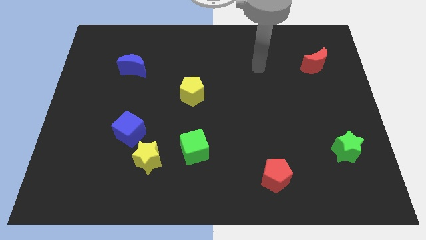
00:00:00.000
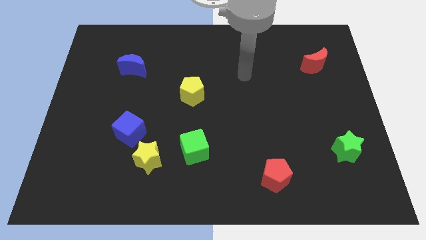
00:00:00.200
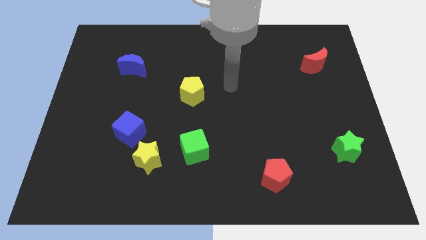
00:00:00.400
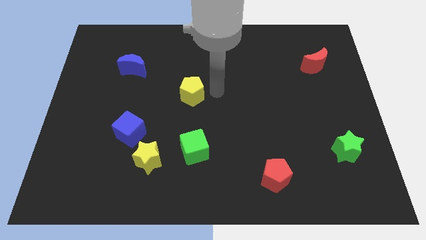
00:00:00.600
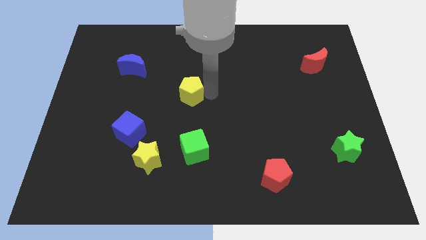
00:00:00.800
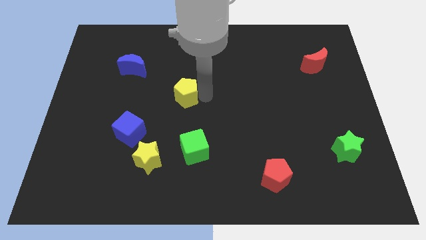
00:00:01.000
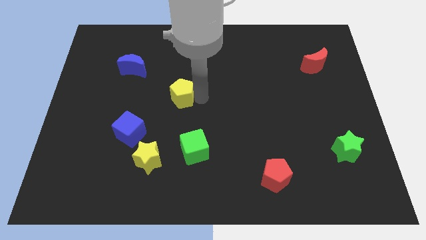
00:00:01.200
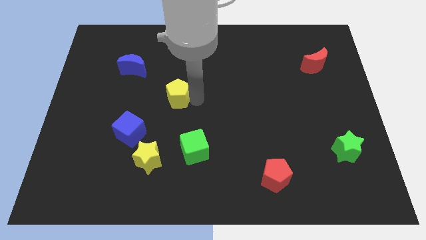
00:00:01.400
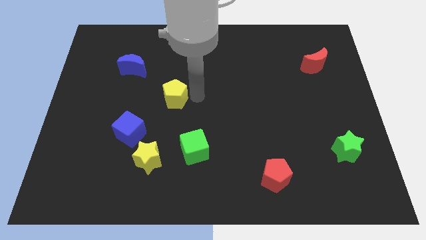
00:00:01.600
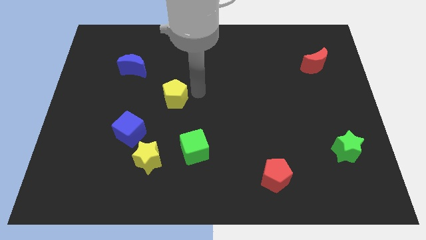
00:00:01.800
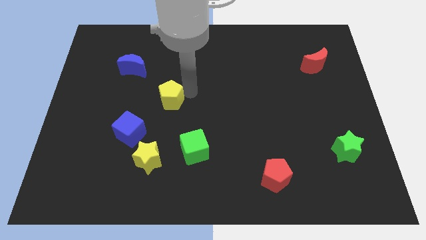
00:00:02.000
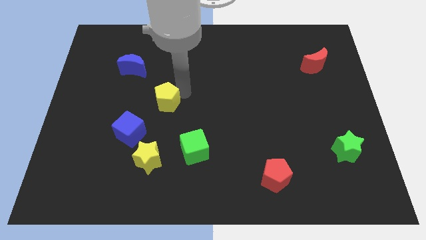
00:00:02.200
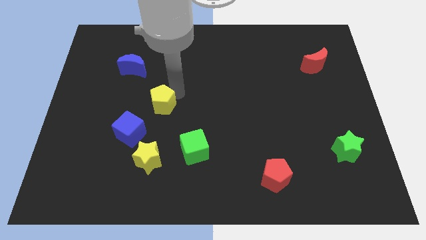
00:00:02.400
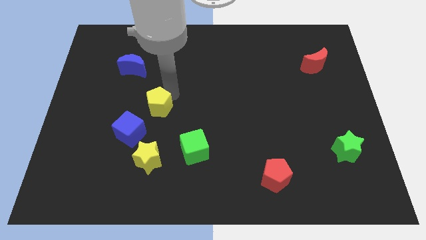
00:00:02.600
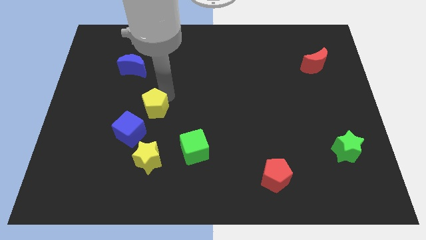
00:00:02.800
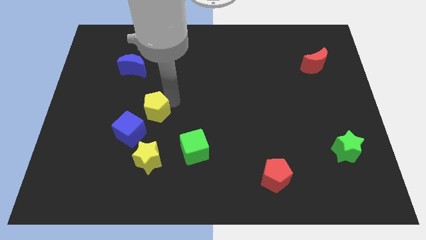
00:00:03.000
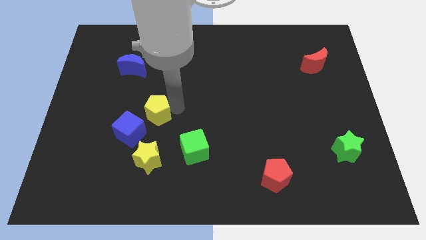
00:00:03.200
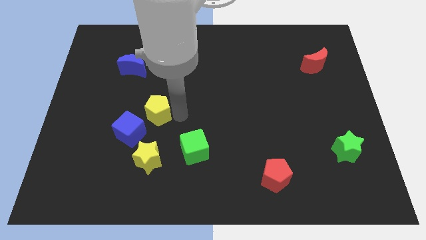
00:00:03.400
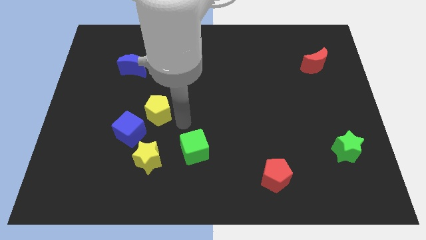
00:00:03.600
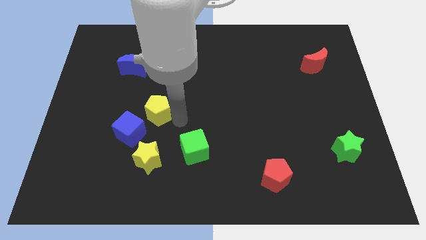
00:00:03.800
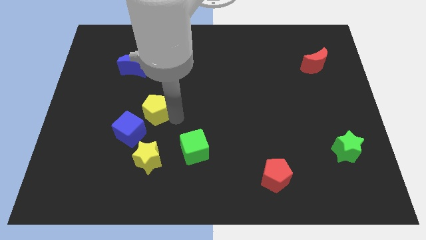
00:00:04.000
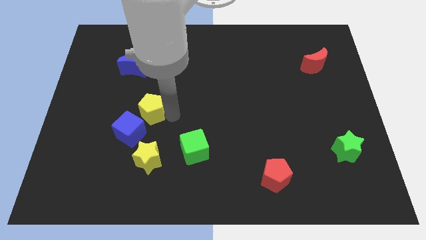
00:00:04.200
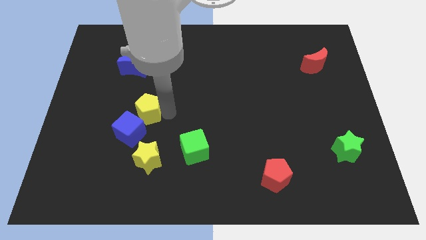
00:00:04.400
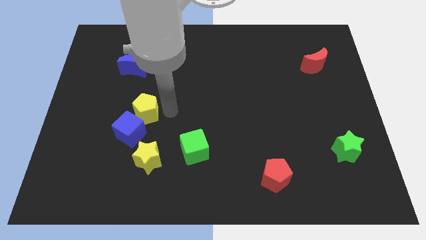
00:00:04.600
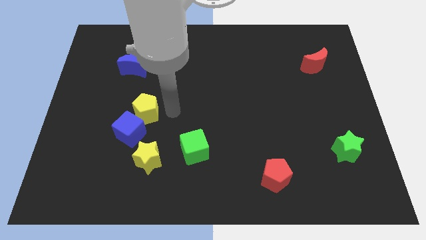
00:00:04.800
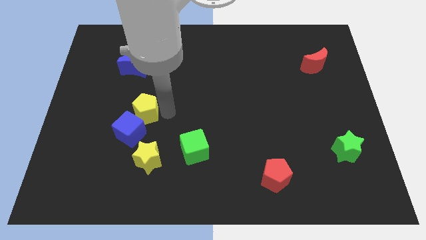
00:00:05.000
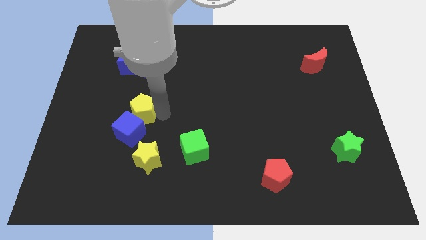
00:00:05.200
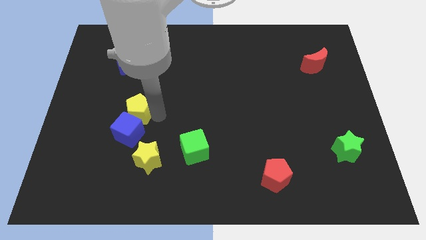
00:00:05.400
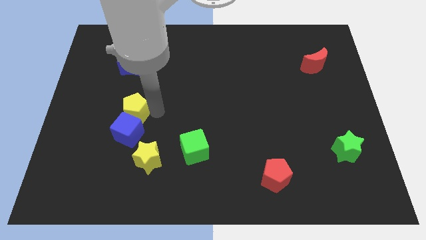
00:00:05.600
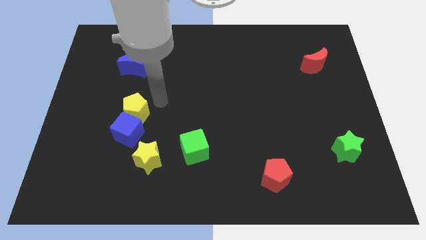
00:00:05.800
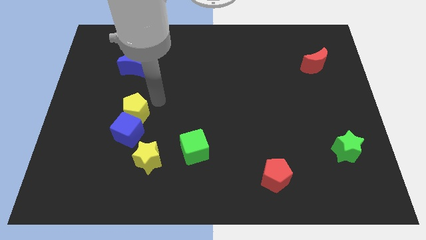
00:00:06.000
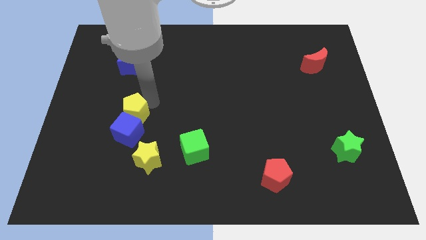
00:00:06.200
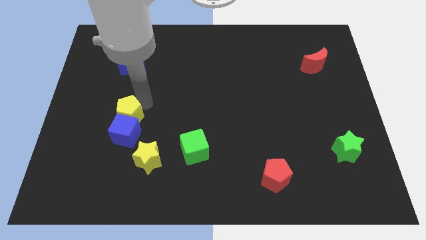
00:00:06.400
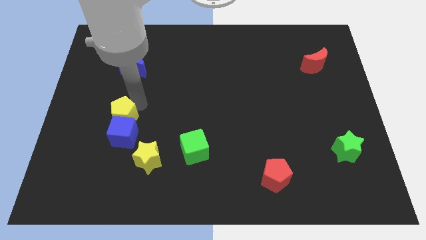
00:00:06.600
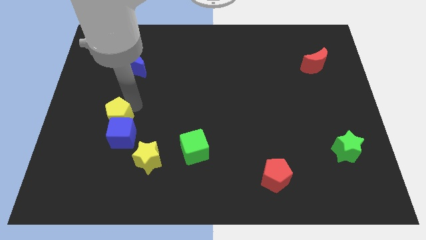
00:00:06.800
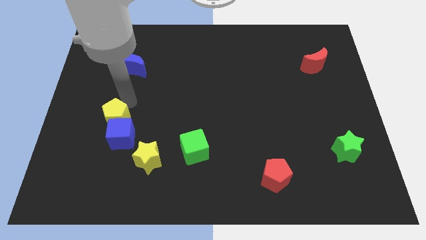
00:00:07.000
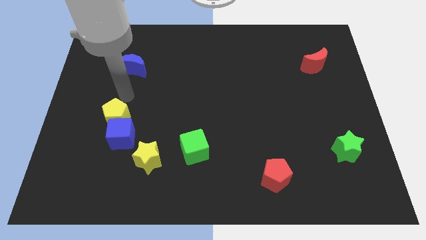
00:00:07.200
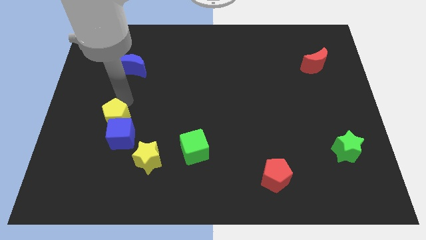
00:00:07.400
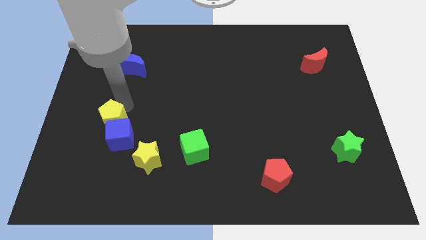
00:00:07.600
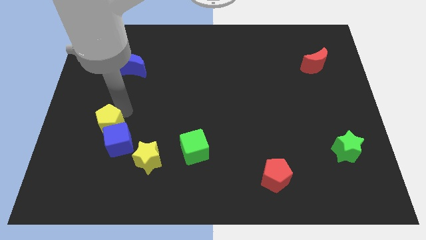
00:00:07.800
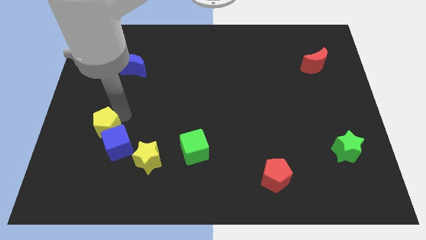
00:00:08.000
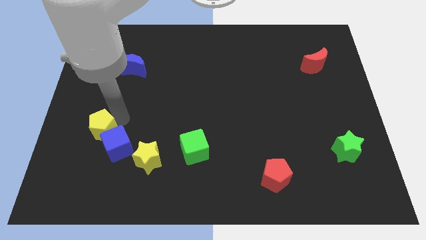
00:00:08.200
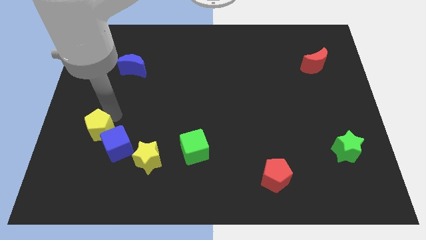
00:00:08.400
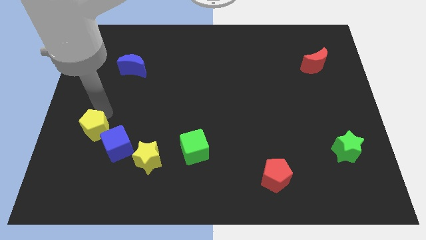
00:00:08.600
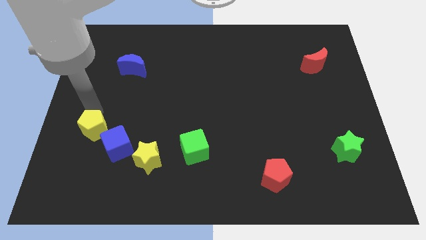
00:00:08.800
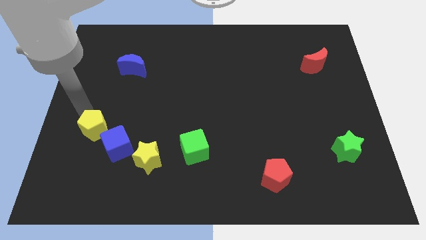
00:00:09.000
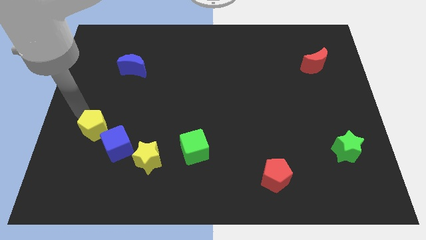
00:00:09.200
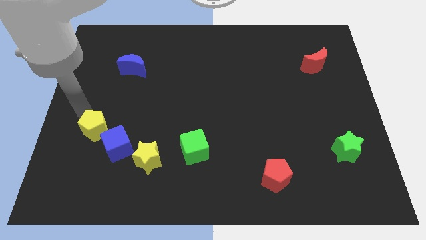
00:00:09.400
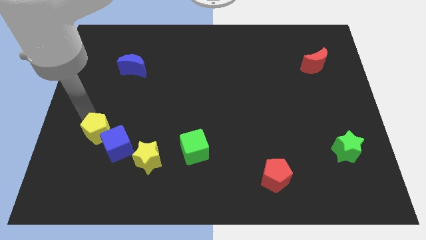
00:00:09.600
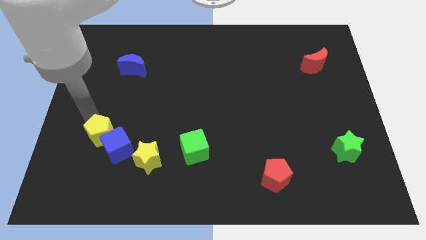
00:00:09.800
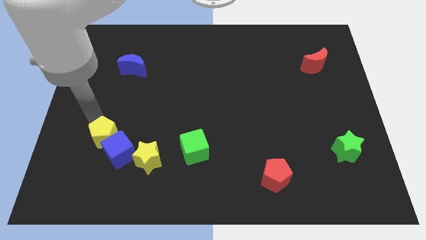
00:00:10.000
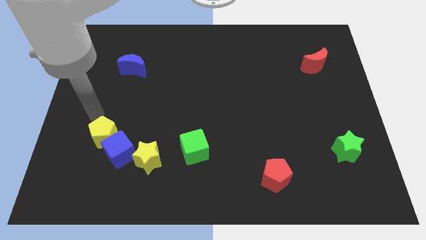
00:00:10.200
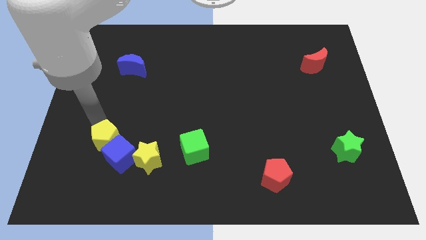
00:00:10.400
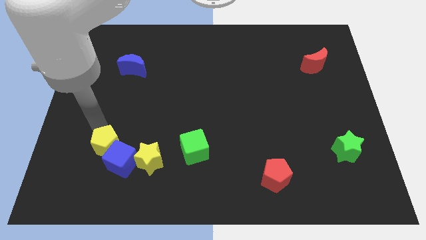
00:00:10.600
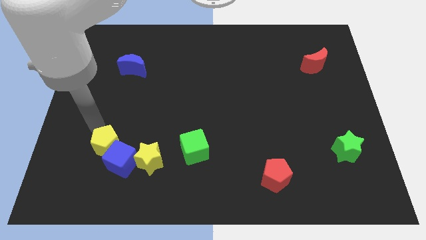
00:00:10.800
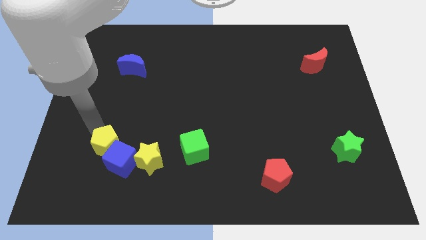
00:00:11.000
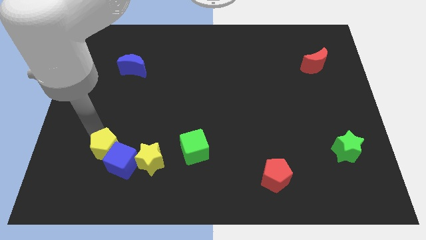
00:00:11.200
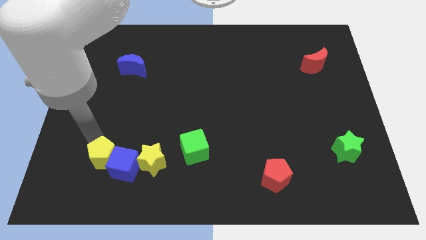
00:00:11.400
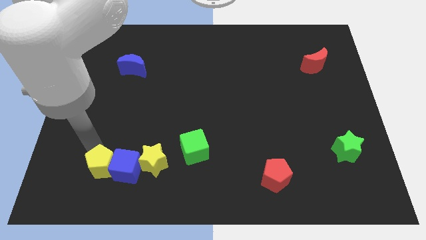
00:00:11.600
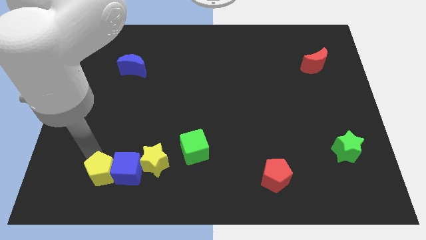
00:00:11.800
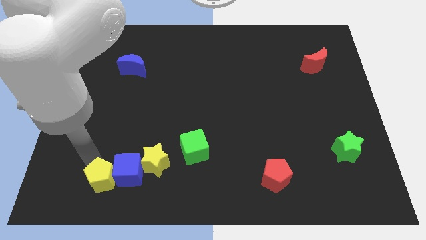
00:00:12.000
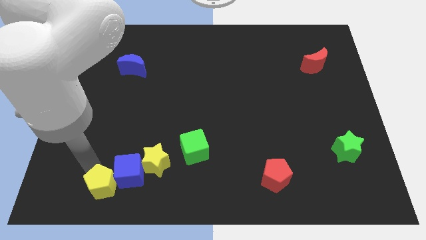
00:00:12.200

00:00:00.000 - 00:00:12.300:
push the yellow pentagon diagonally down and to the left of the yellow star

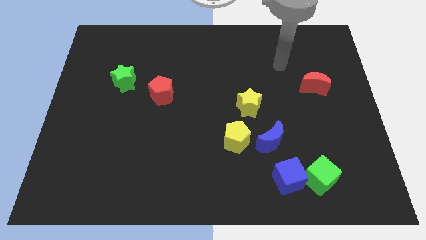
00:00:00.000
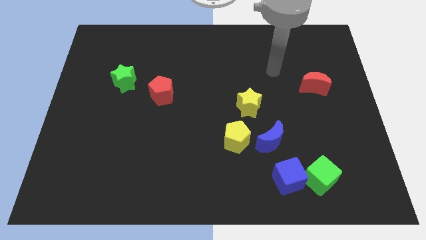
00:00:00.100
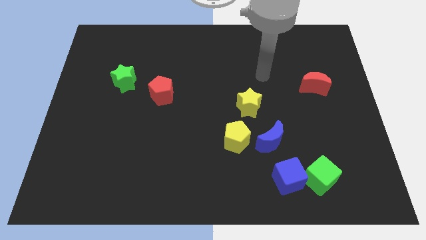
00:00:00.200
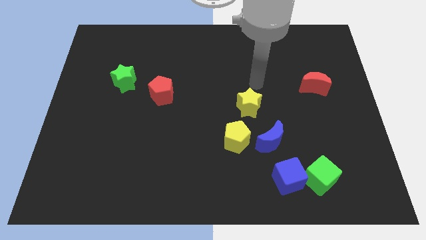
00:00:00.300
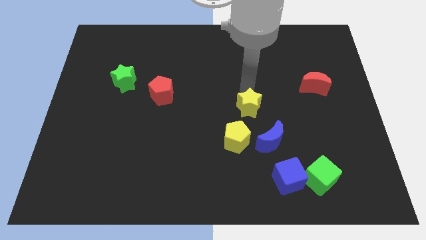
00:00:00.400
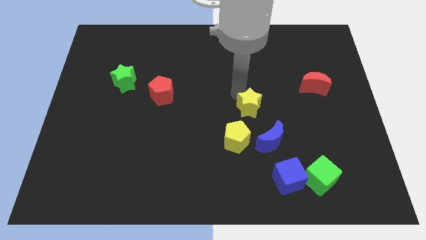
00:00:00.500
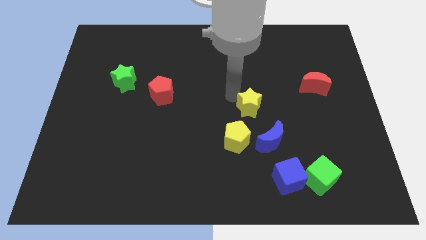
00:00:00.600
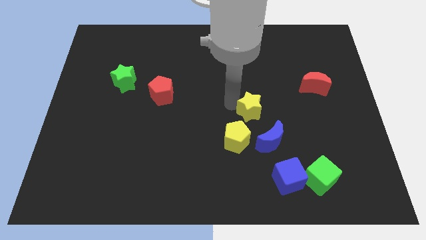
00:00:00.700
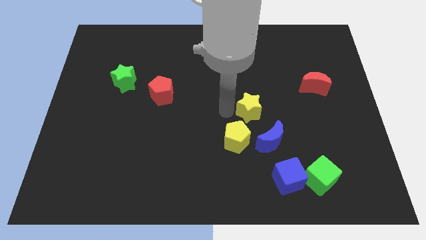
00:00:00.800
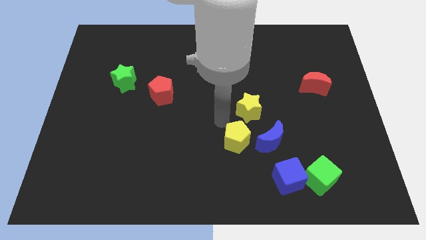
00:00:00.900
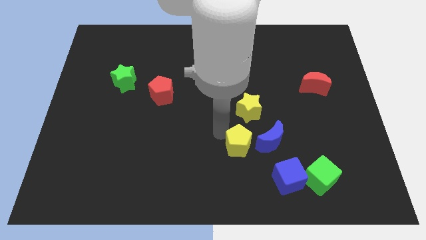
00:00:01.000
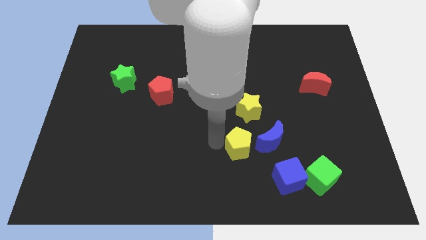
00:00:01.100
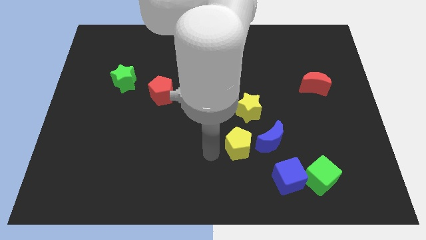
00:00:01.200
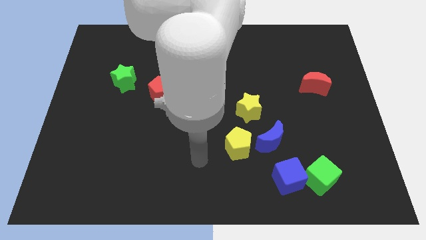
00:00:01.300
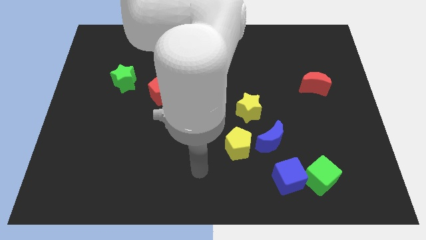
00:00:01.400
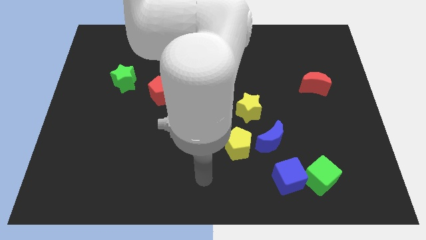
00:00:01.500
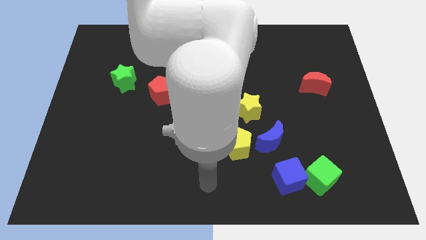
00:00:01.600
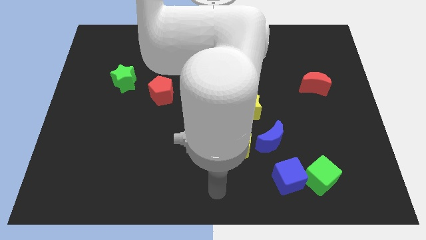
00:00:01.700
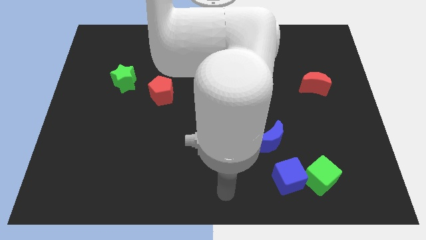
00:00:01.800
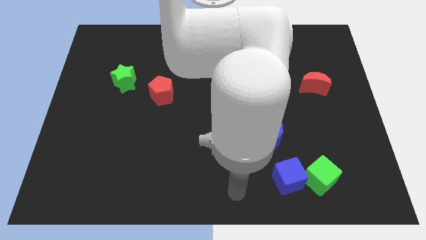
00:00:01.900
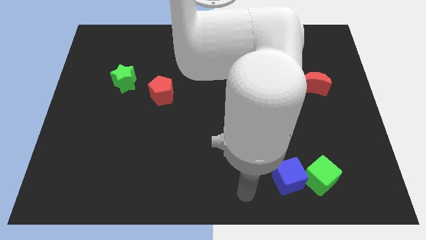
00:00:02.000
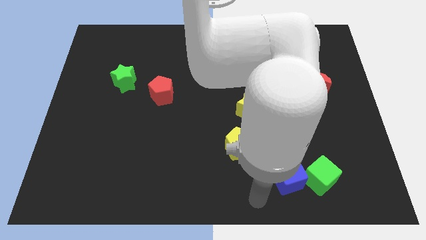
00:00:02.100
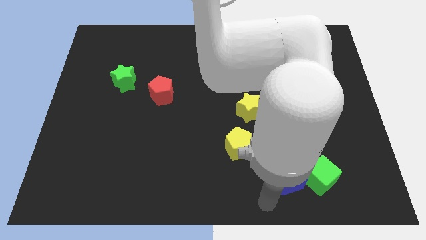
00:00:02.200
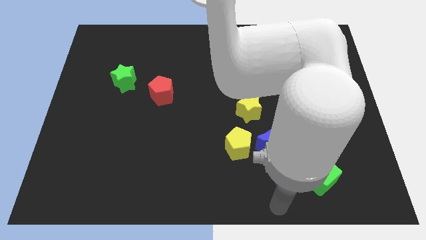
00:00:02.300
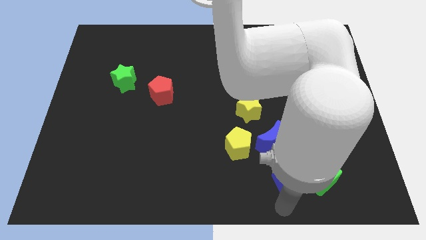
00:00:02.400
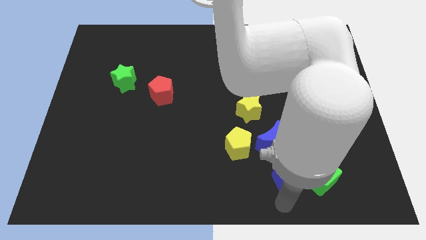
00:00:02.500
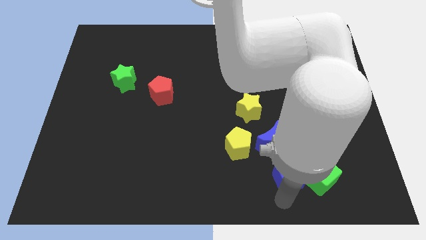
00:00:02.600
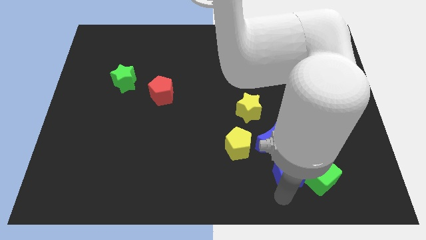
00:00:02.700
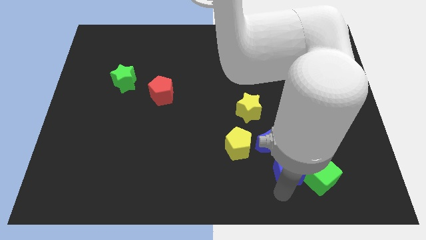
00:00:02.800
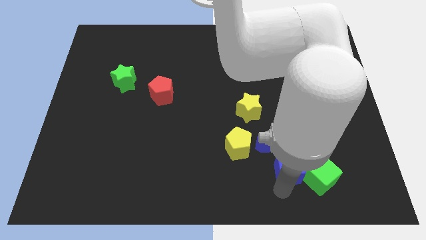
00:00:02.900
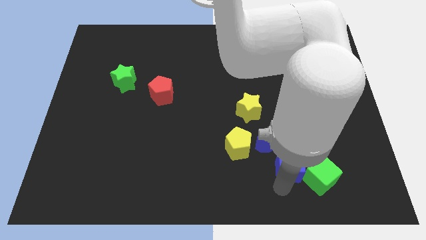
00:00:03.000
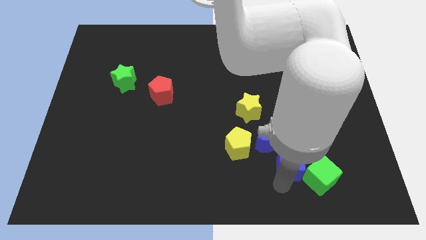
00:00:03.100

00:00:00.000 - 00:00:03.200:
slide the blue cube to the right of the yellow pentagon
